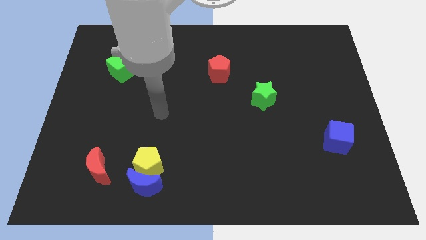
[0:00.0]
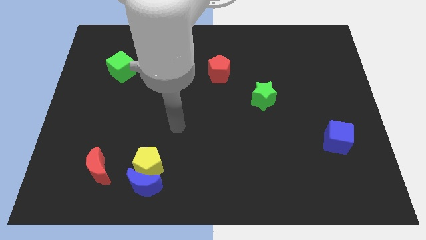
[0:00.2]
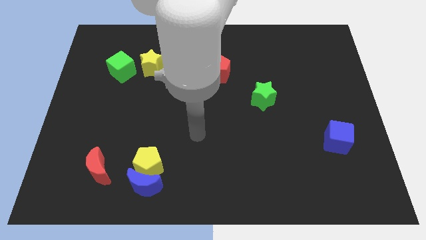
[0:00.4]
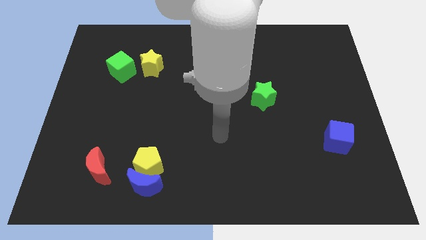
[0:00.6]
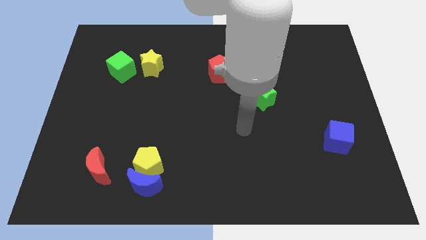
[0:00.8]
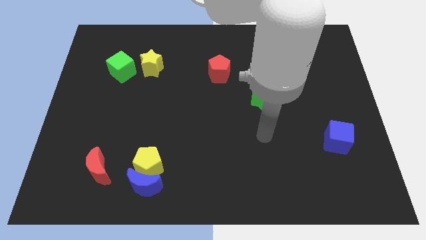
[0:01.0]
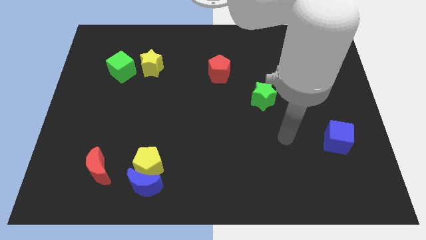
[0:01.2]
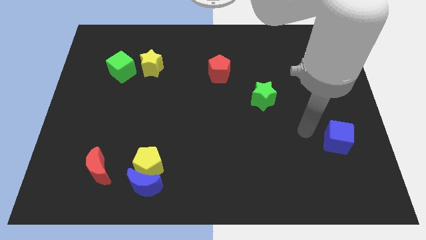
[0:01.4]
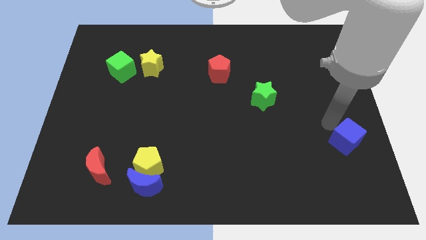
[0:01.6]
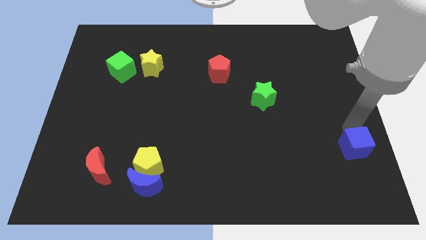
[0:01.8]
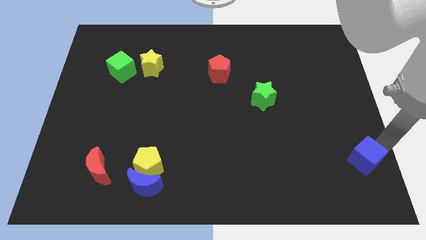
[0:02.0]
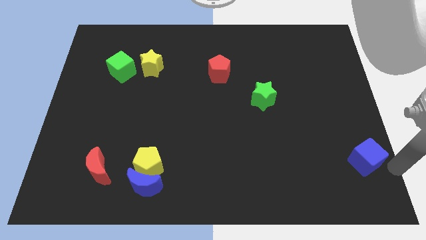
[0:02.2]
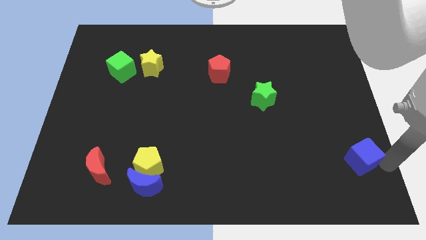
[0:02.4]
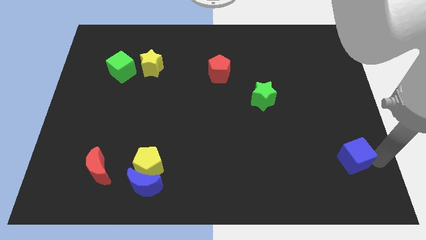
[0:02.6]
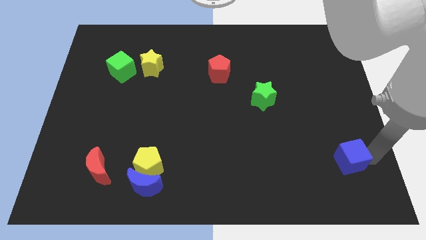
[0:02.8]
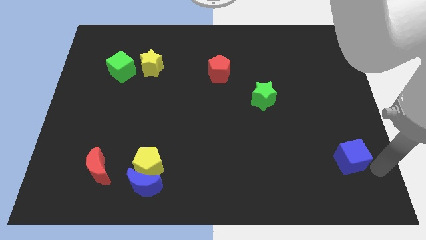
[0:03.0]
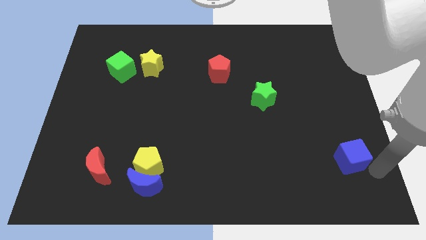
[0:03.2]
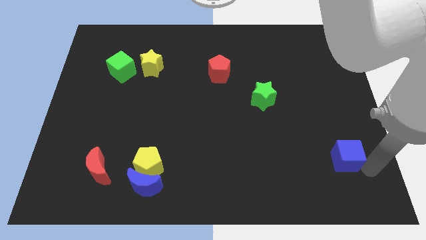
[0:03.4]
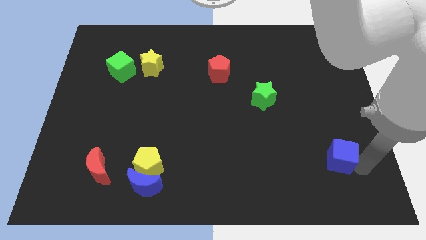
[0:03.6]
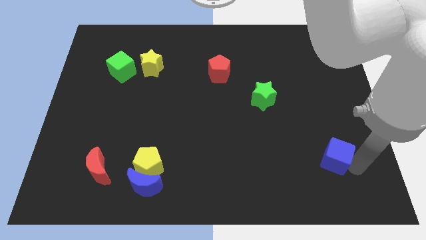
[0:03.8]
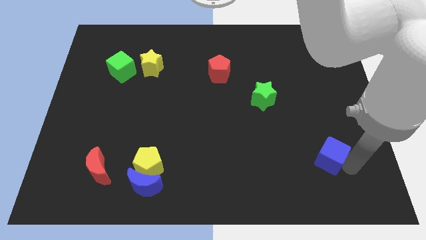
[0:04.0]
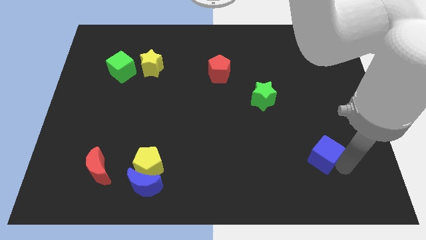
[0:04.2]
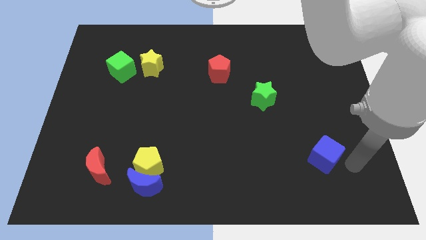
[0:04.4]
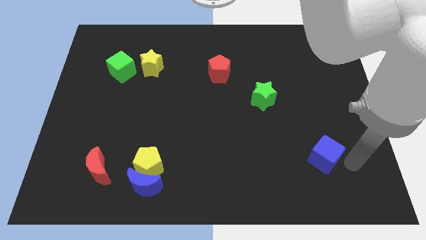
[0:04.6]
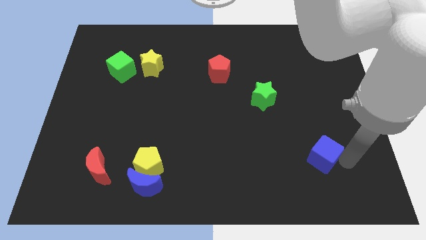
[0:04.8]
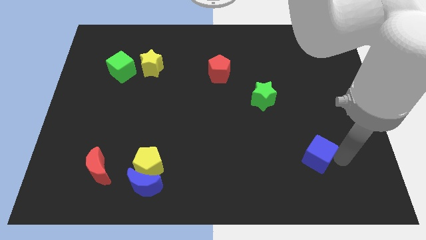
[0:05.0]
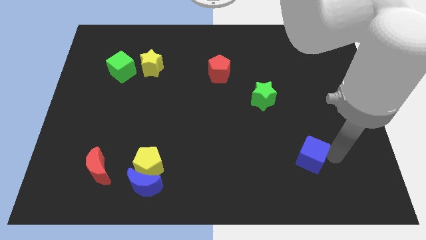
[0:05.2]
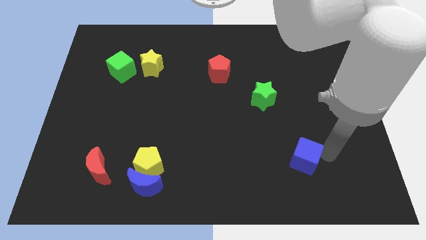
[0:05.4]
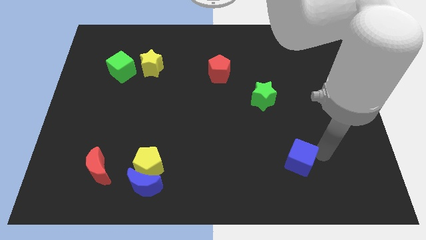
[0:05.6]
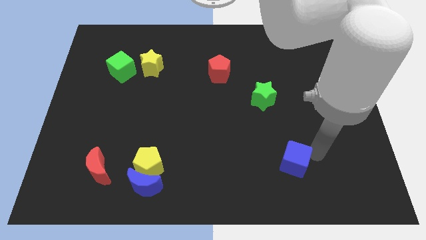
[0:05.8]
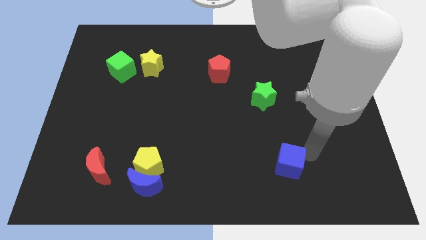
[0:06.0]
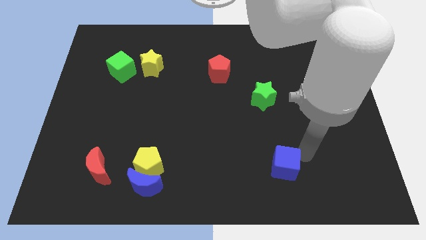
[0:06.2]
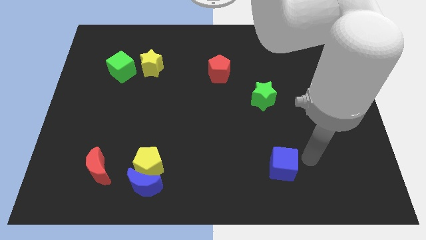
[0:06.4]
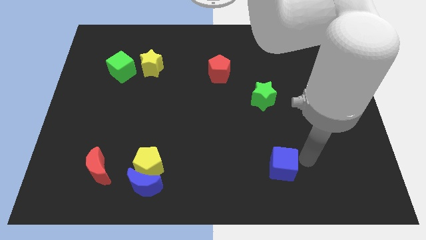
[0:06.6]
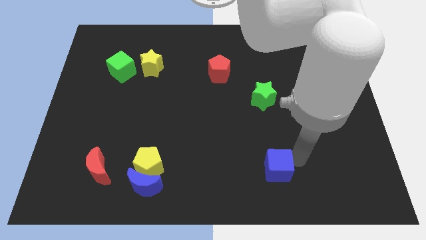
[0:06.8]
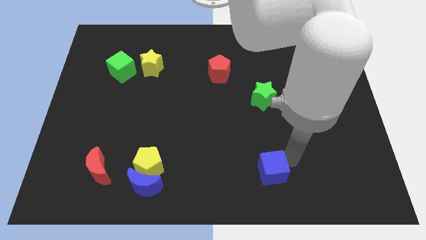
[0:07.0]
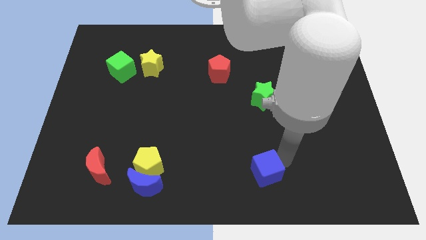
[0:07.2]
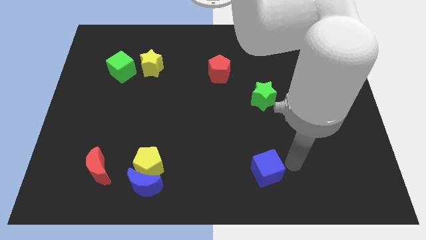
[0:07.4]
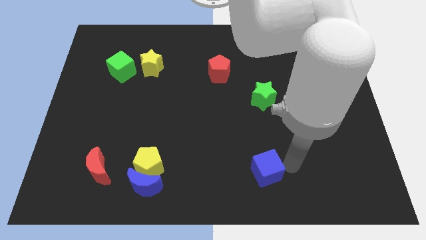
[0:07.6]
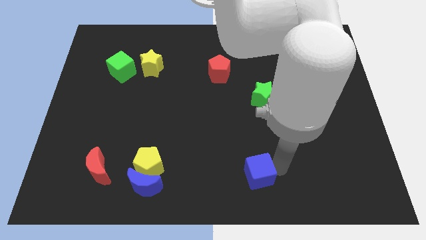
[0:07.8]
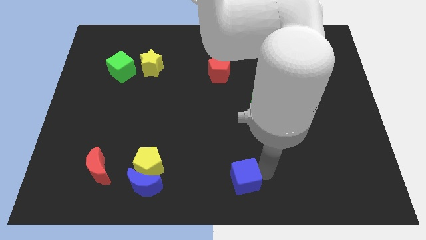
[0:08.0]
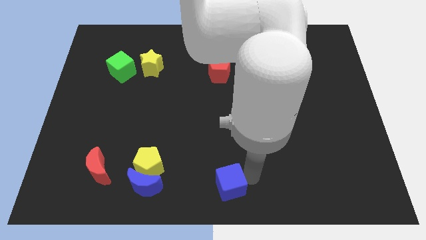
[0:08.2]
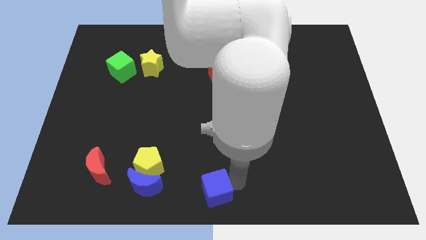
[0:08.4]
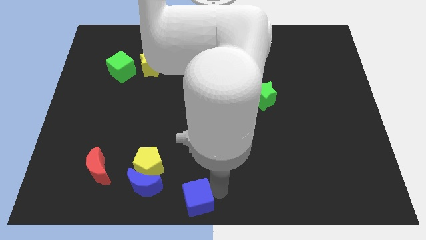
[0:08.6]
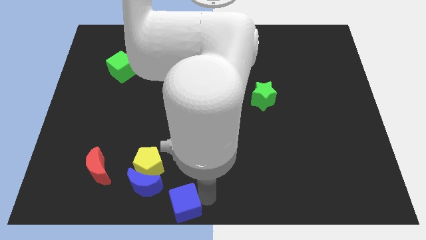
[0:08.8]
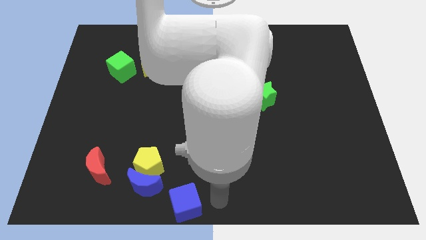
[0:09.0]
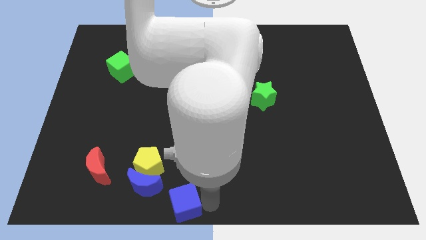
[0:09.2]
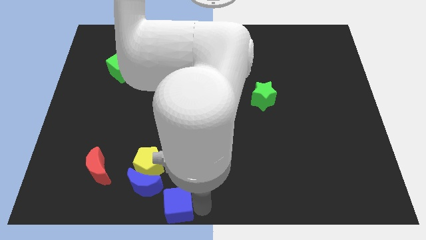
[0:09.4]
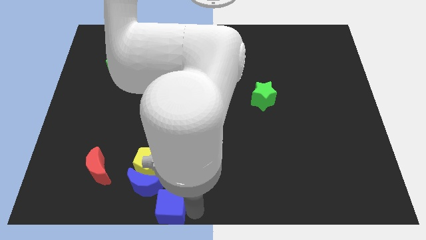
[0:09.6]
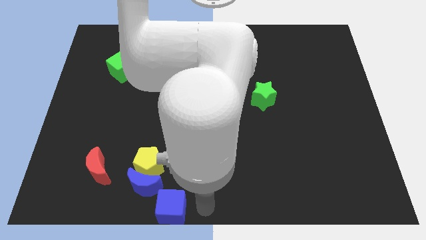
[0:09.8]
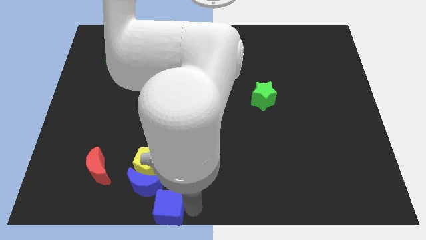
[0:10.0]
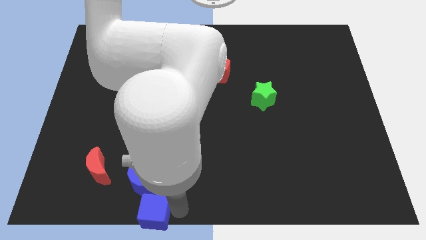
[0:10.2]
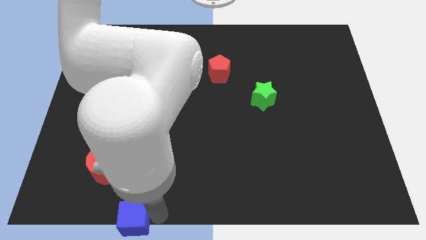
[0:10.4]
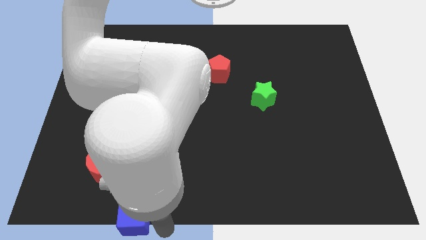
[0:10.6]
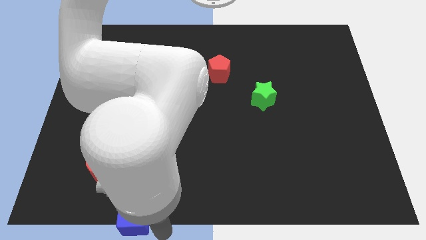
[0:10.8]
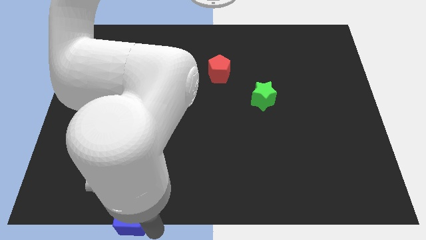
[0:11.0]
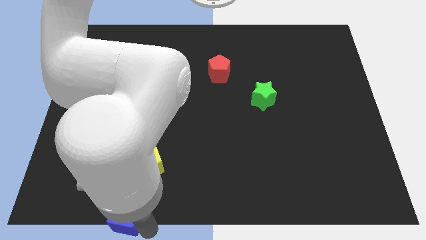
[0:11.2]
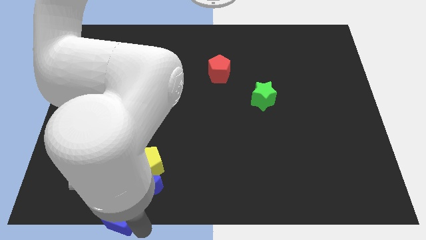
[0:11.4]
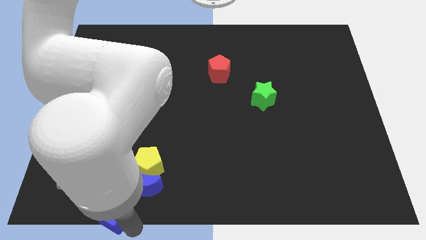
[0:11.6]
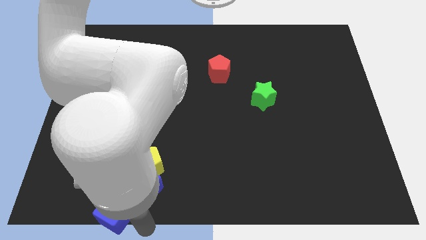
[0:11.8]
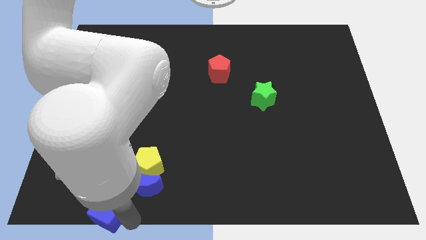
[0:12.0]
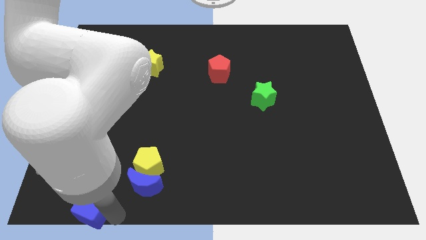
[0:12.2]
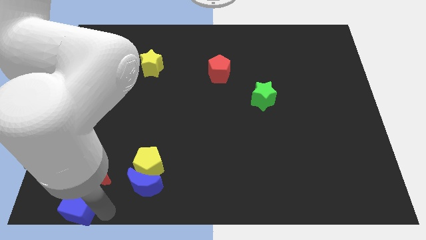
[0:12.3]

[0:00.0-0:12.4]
slide the blue cube to the bottom left

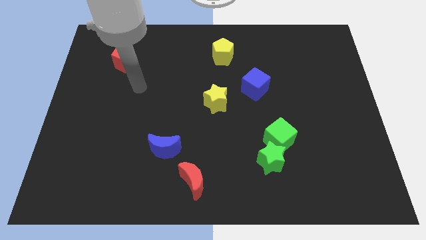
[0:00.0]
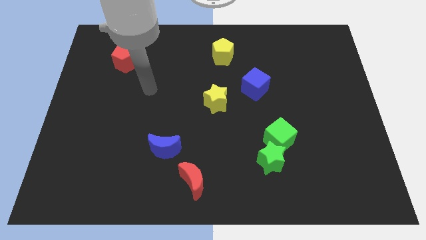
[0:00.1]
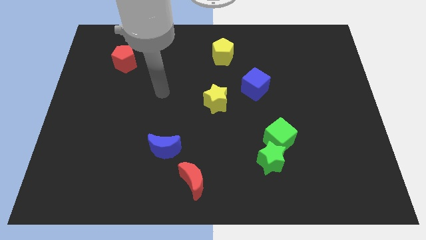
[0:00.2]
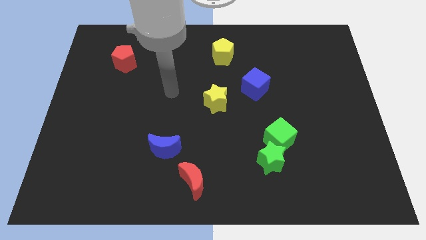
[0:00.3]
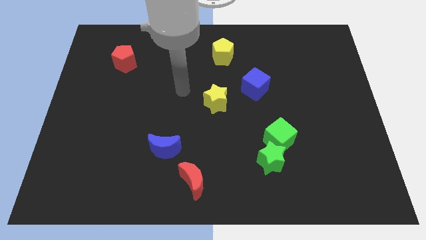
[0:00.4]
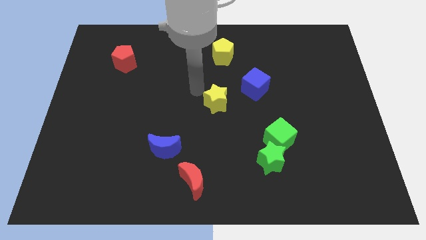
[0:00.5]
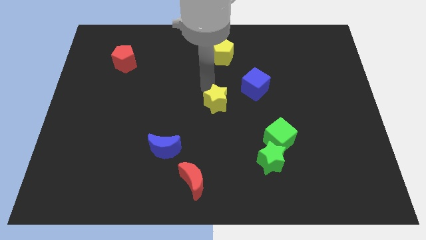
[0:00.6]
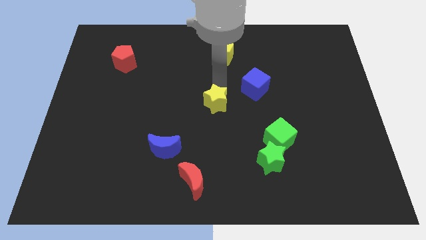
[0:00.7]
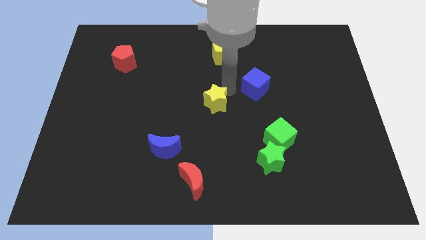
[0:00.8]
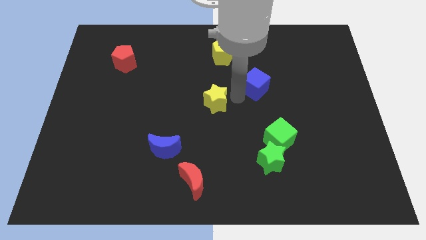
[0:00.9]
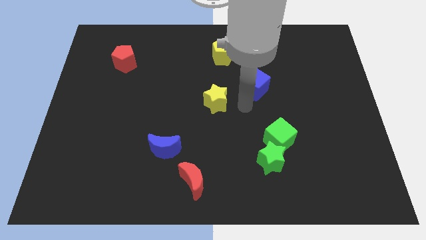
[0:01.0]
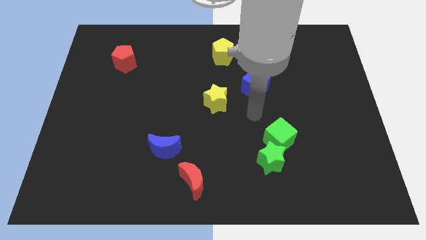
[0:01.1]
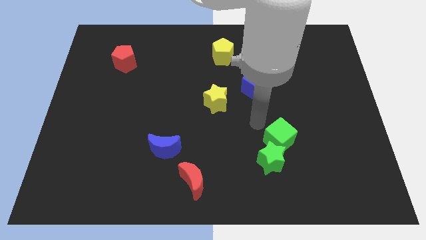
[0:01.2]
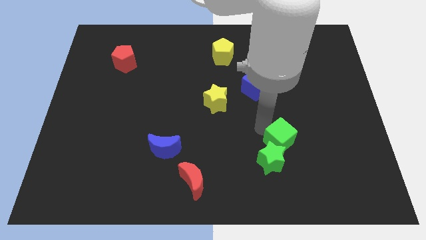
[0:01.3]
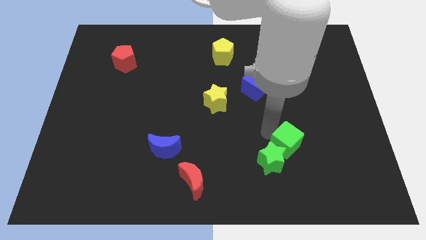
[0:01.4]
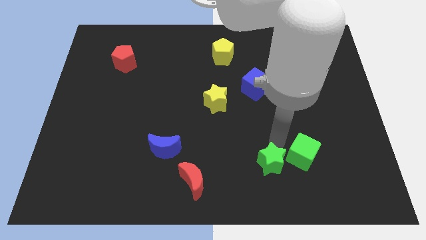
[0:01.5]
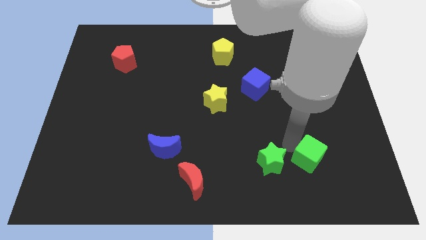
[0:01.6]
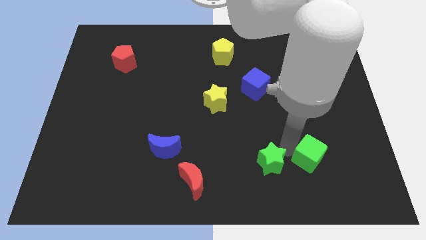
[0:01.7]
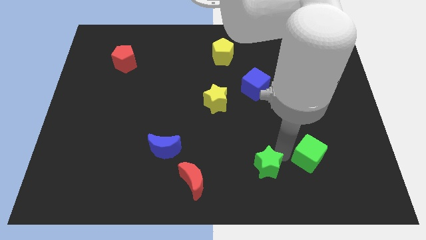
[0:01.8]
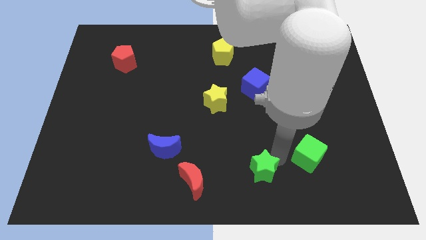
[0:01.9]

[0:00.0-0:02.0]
move the green star to the bottom side
